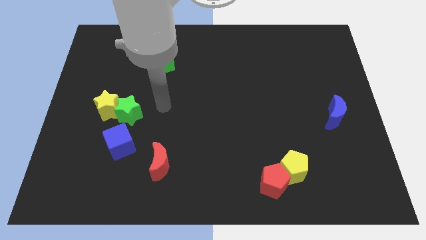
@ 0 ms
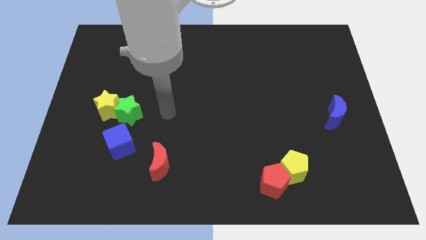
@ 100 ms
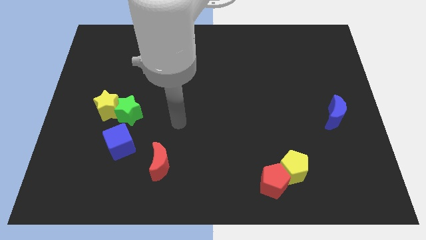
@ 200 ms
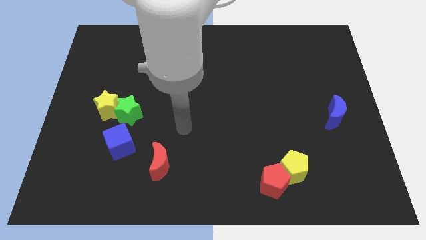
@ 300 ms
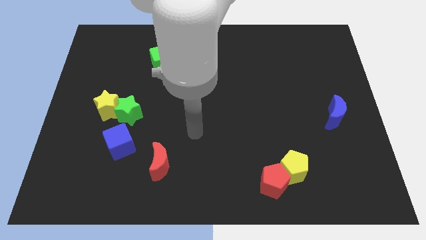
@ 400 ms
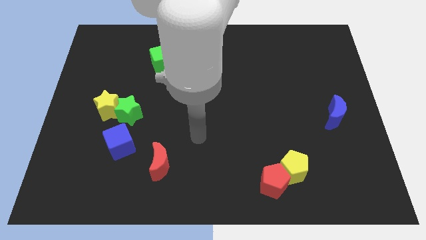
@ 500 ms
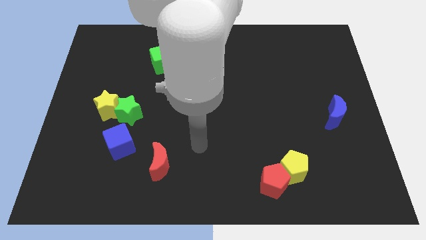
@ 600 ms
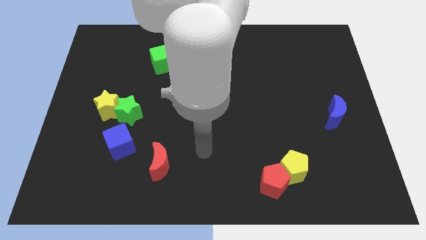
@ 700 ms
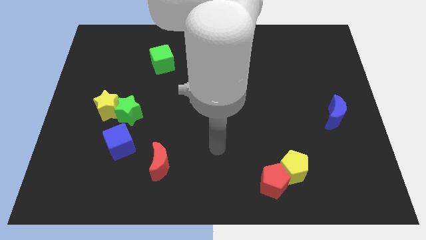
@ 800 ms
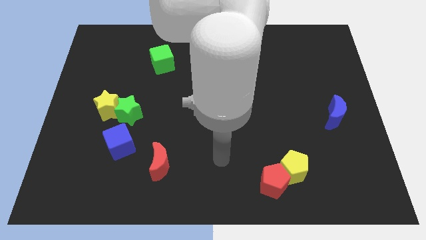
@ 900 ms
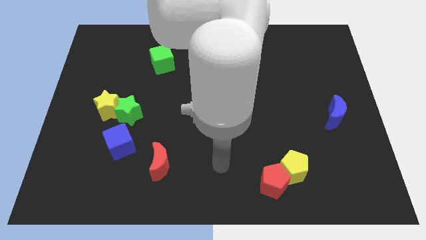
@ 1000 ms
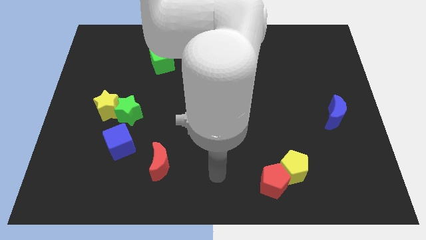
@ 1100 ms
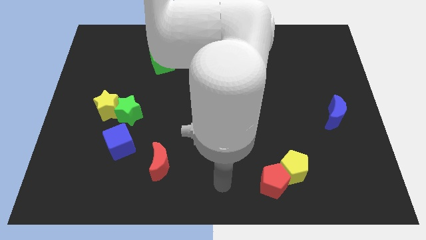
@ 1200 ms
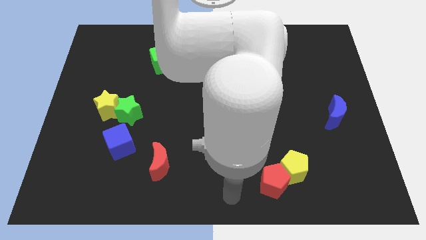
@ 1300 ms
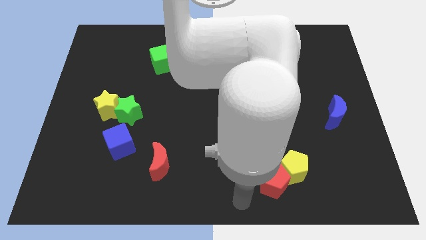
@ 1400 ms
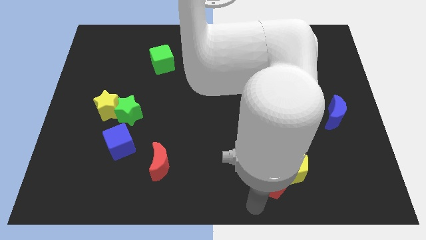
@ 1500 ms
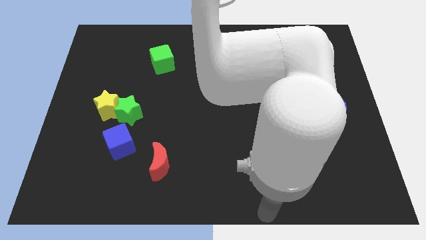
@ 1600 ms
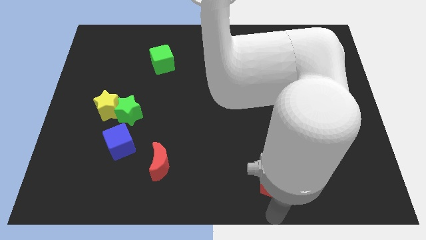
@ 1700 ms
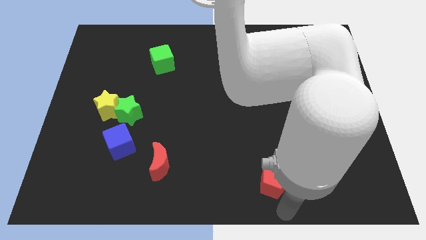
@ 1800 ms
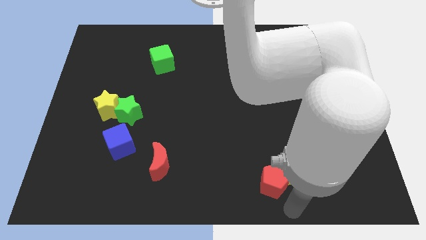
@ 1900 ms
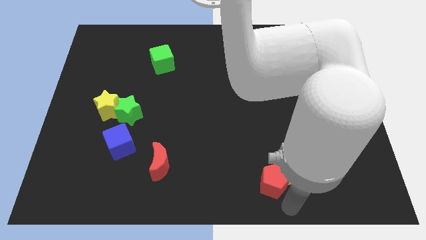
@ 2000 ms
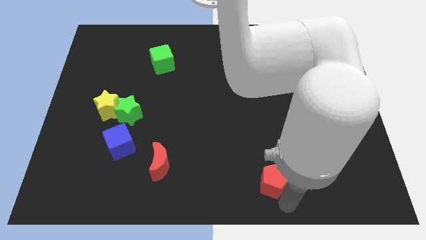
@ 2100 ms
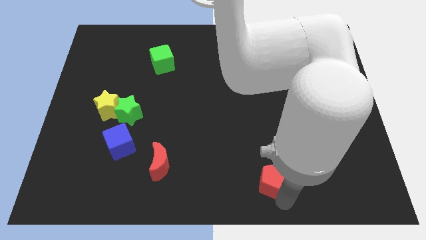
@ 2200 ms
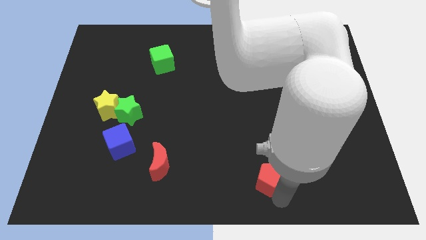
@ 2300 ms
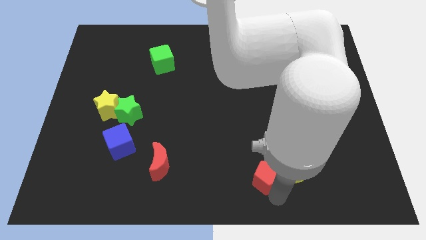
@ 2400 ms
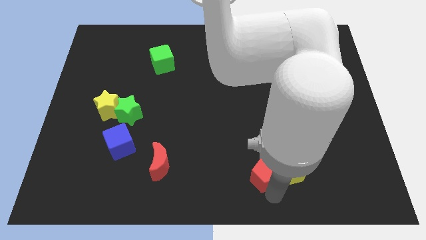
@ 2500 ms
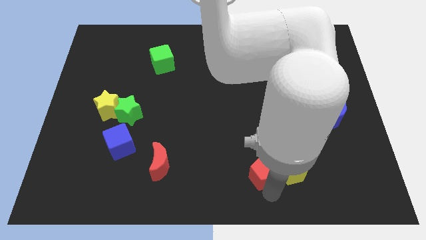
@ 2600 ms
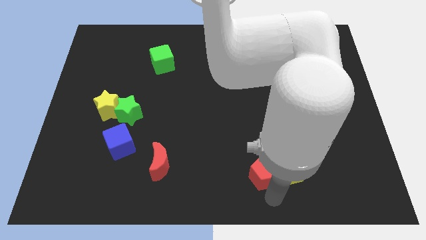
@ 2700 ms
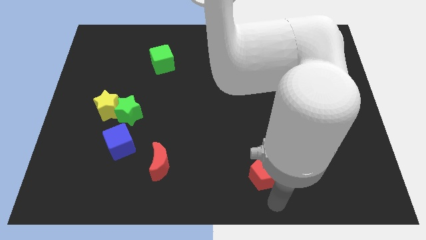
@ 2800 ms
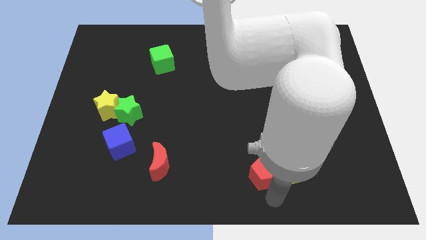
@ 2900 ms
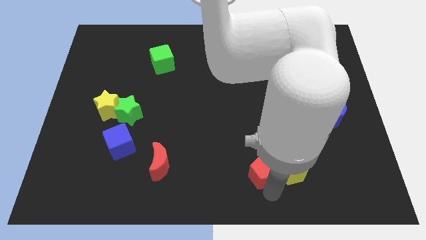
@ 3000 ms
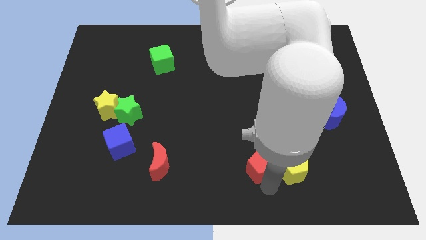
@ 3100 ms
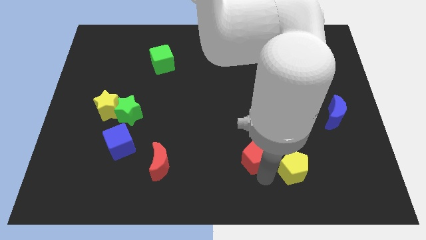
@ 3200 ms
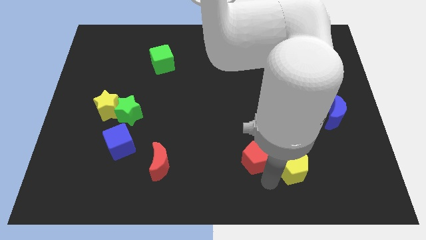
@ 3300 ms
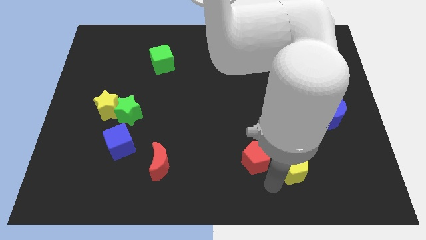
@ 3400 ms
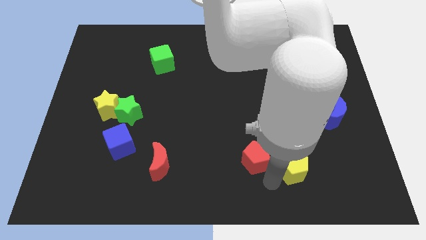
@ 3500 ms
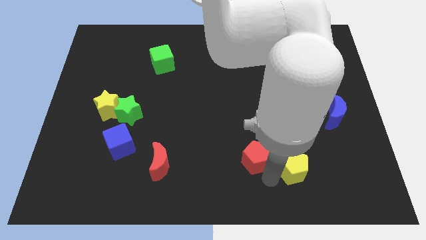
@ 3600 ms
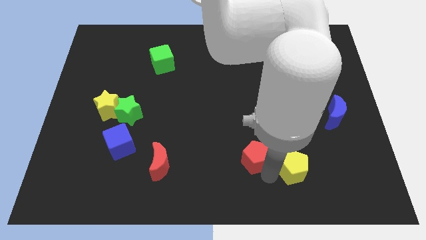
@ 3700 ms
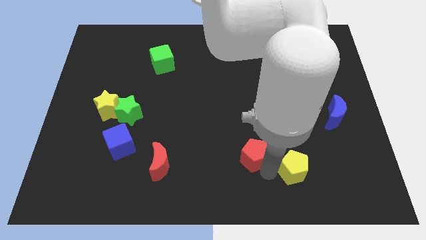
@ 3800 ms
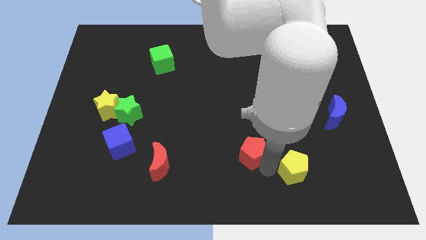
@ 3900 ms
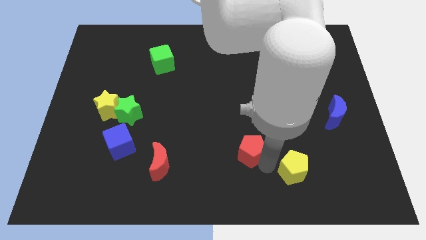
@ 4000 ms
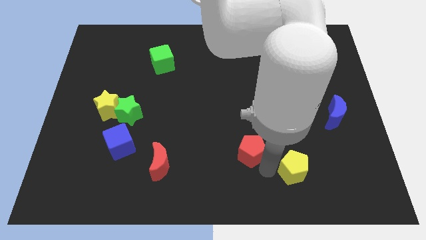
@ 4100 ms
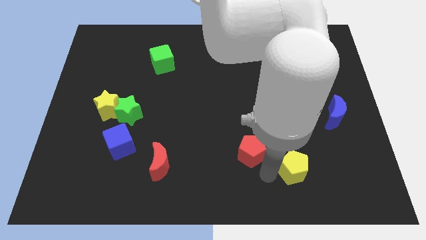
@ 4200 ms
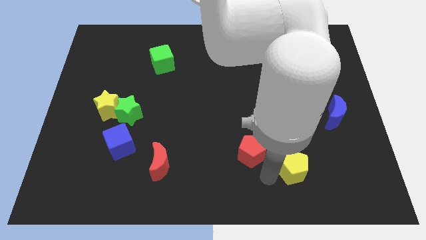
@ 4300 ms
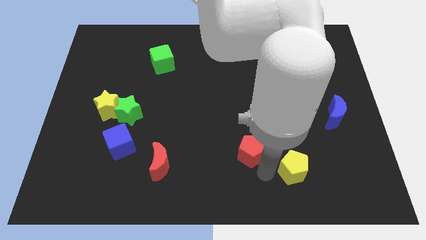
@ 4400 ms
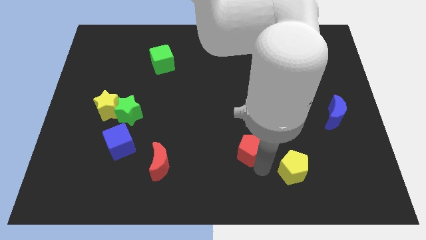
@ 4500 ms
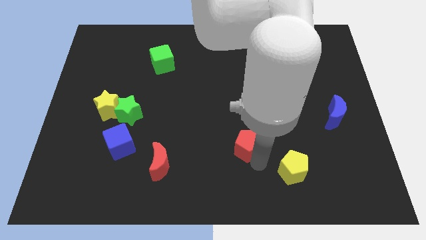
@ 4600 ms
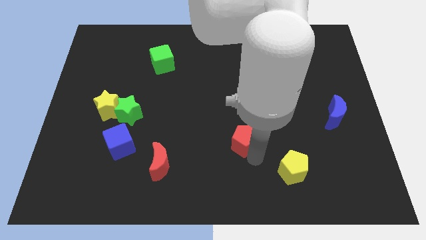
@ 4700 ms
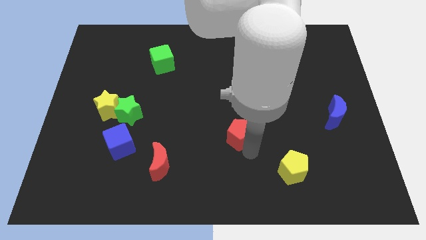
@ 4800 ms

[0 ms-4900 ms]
move the red pentagon to the middle of the board

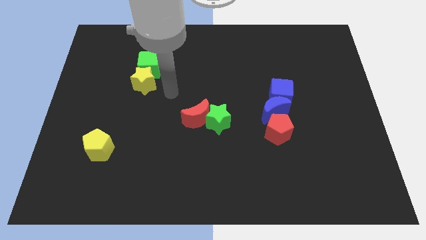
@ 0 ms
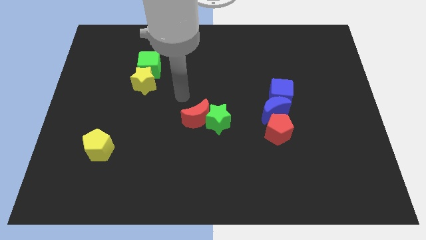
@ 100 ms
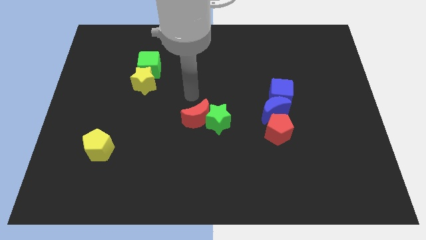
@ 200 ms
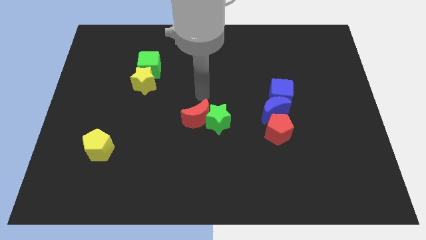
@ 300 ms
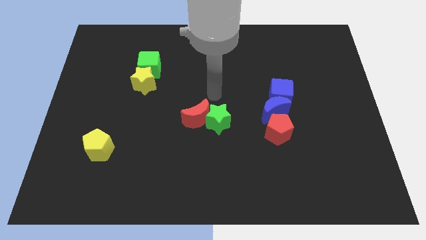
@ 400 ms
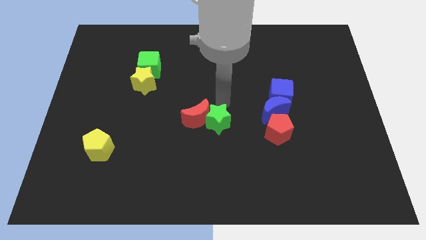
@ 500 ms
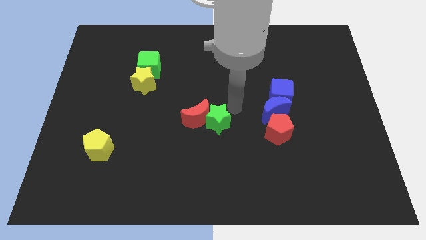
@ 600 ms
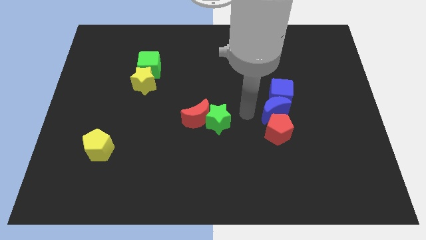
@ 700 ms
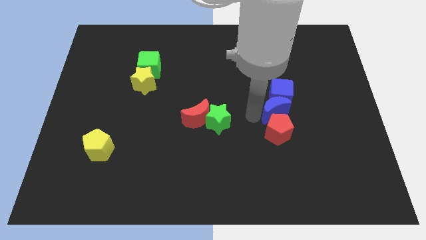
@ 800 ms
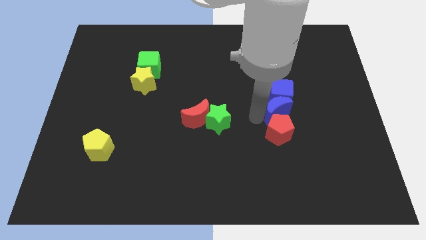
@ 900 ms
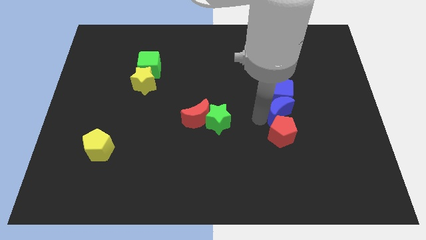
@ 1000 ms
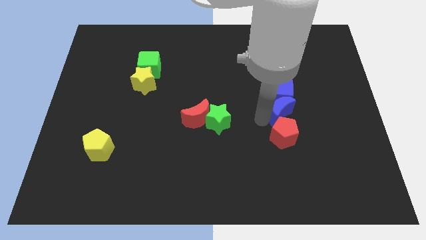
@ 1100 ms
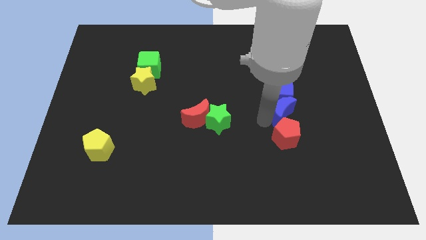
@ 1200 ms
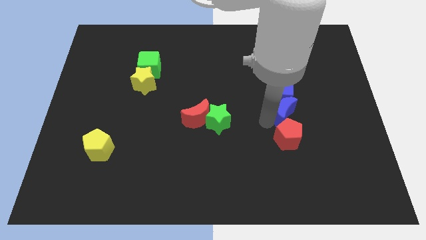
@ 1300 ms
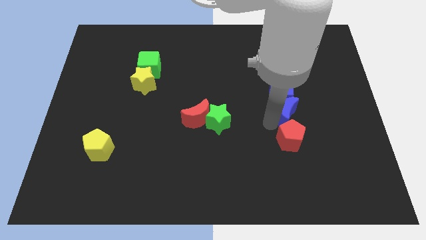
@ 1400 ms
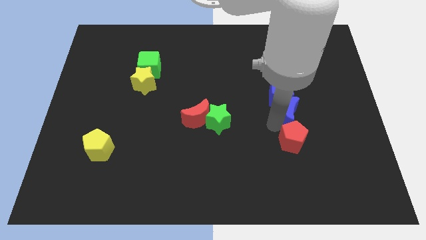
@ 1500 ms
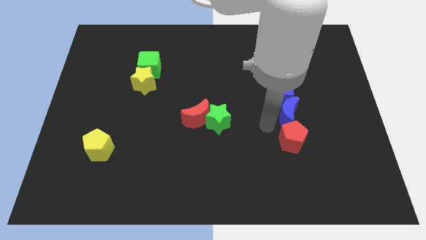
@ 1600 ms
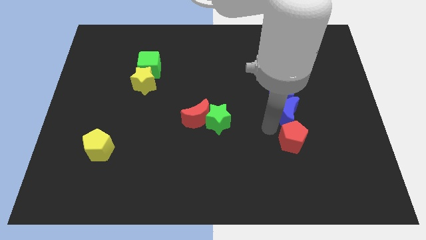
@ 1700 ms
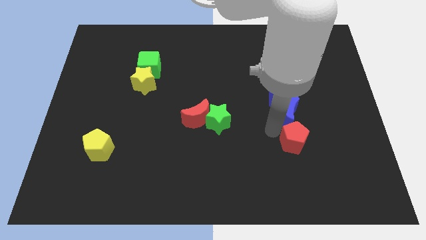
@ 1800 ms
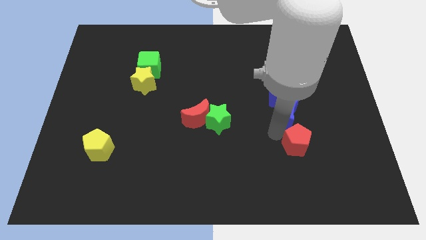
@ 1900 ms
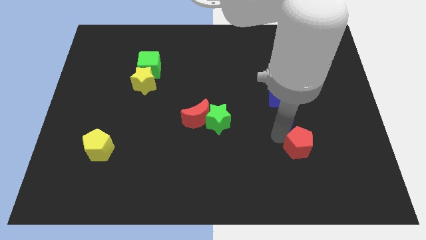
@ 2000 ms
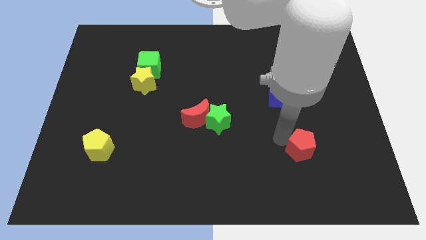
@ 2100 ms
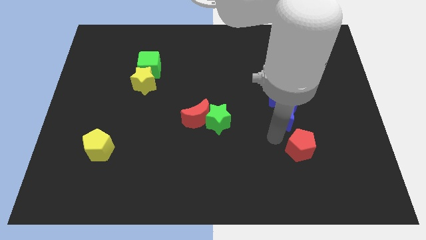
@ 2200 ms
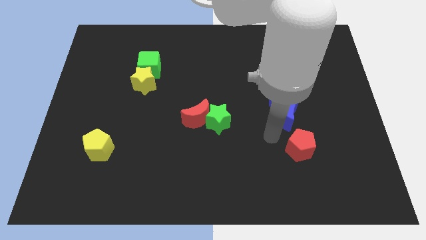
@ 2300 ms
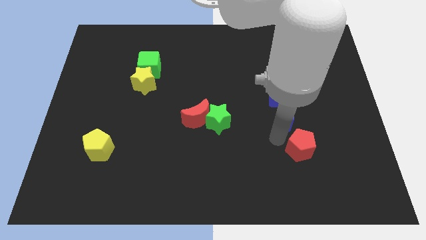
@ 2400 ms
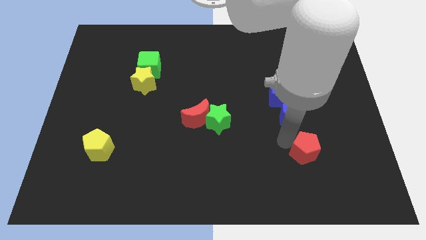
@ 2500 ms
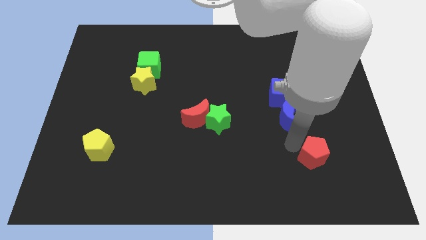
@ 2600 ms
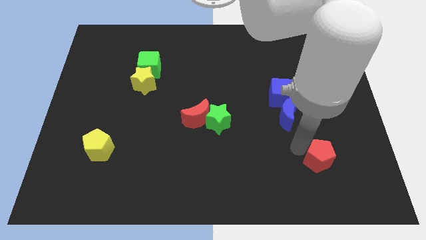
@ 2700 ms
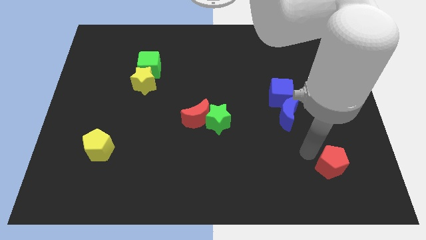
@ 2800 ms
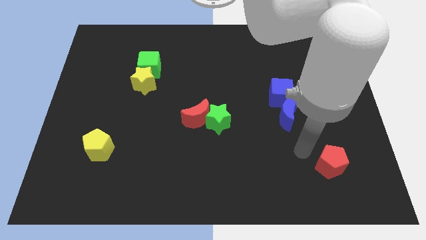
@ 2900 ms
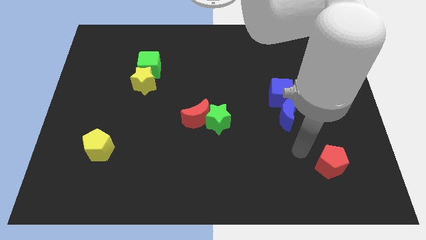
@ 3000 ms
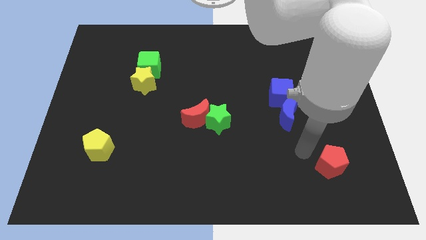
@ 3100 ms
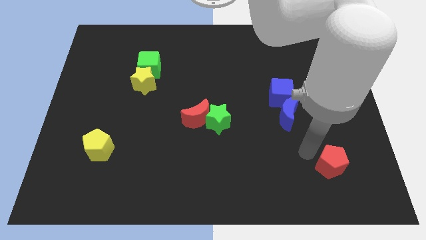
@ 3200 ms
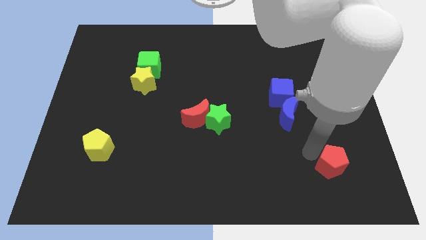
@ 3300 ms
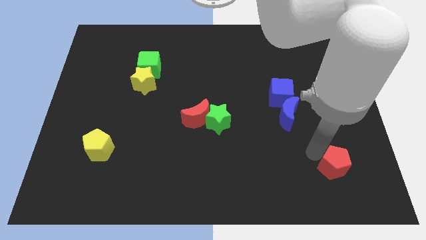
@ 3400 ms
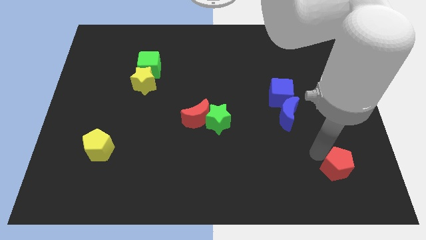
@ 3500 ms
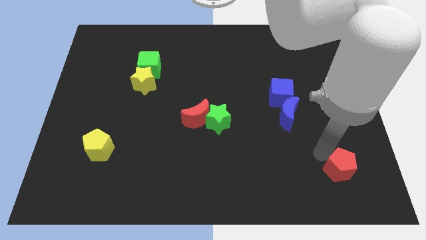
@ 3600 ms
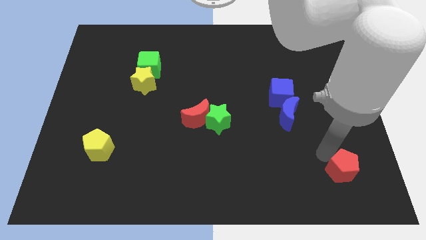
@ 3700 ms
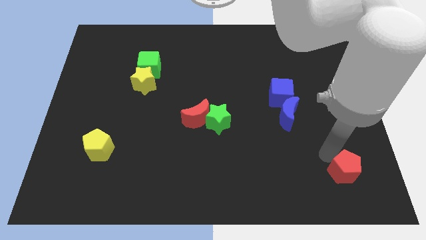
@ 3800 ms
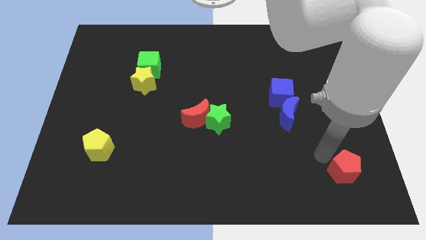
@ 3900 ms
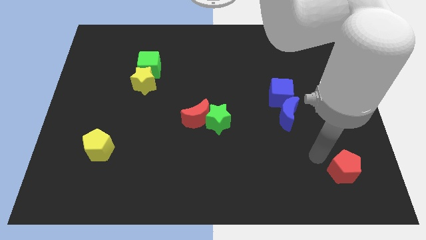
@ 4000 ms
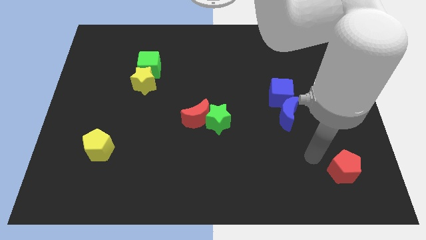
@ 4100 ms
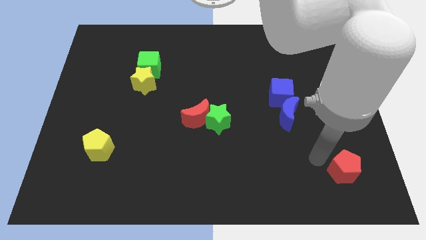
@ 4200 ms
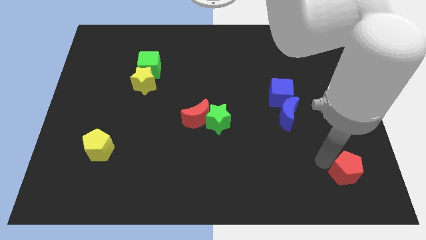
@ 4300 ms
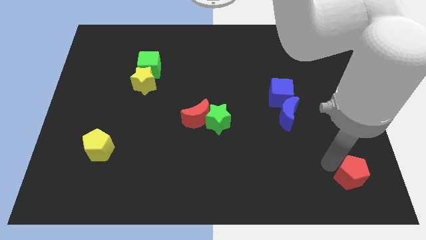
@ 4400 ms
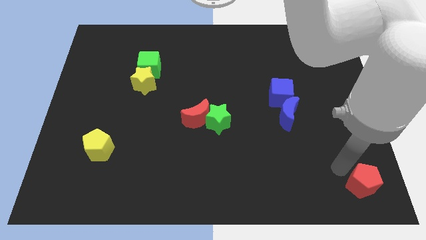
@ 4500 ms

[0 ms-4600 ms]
slide the red pentagon to the bottom right corner
